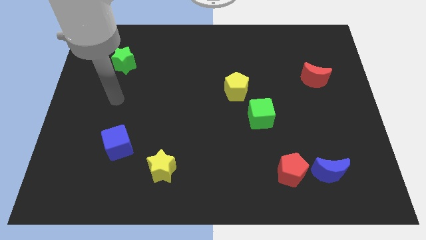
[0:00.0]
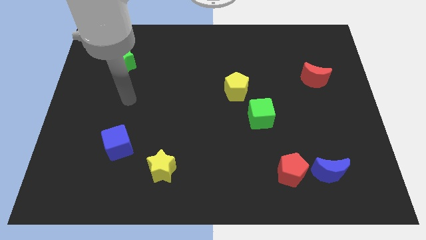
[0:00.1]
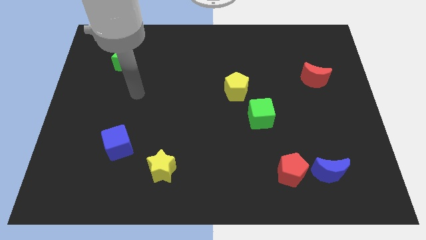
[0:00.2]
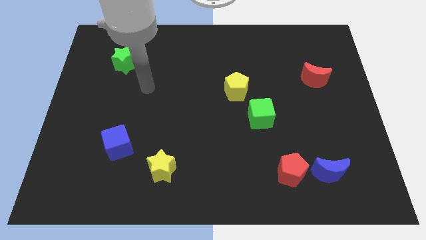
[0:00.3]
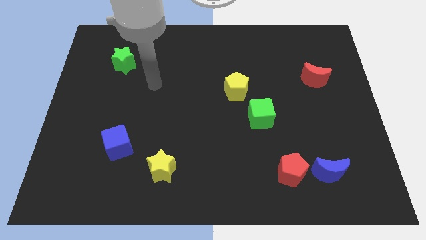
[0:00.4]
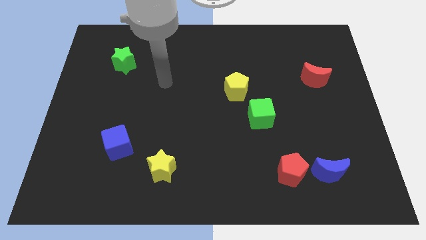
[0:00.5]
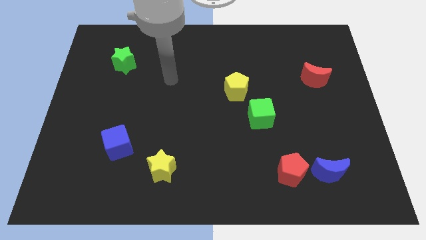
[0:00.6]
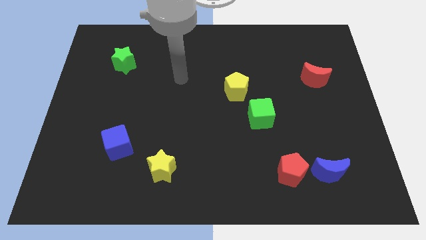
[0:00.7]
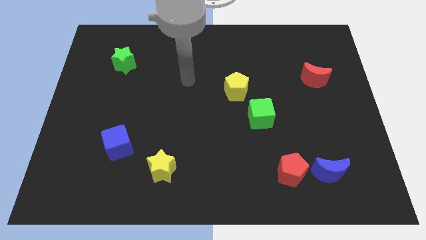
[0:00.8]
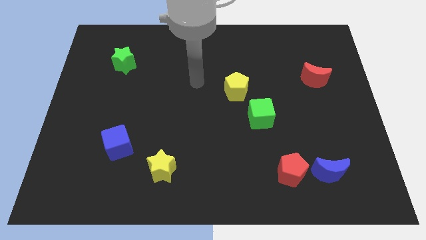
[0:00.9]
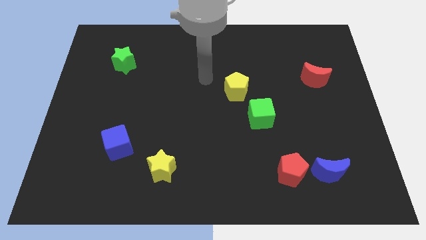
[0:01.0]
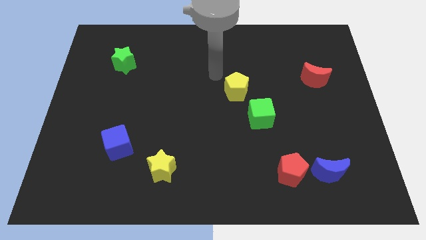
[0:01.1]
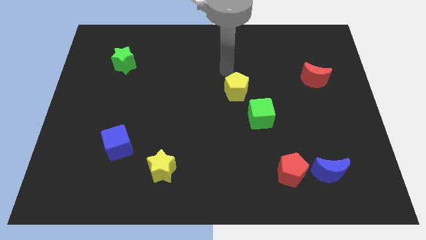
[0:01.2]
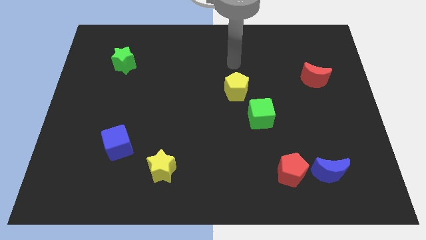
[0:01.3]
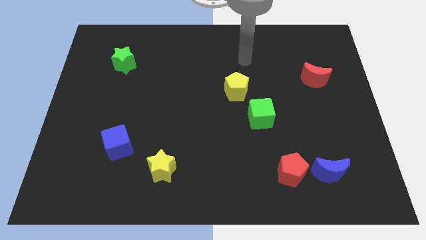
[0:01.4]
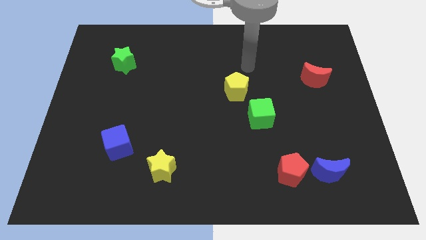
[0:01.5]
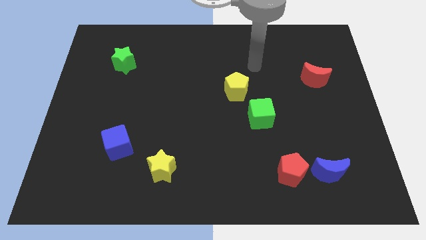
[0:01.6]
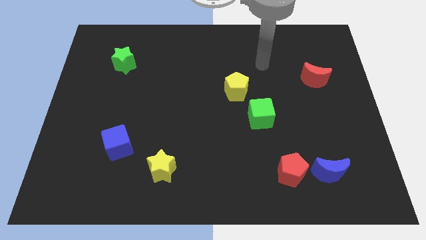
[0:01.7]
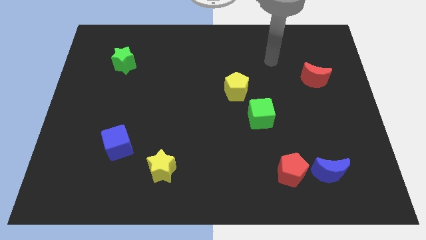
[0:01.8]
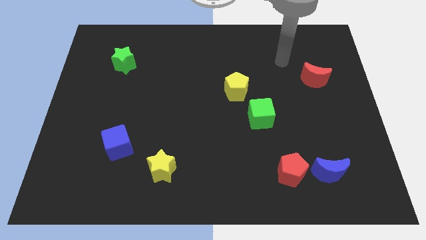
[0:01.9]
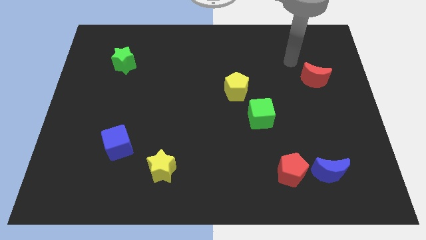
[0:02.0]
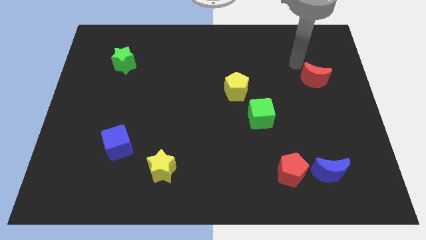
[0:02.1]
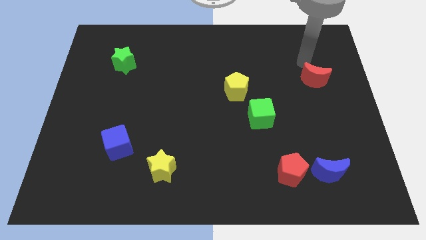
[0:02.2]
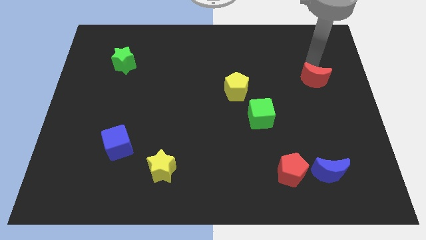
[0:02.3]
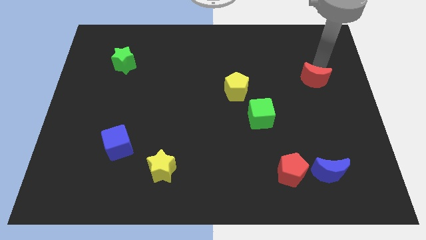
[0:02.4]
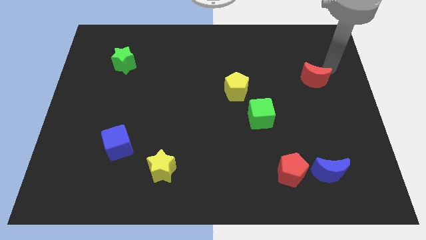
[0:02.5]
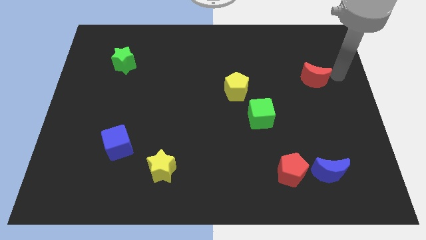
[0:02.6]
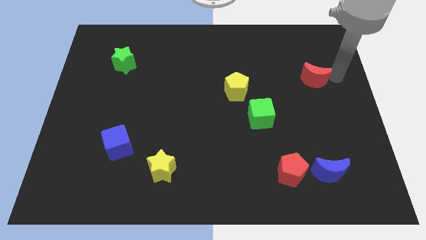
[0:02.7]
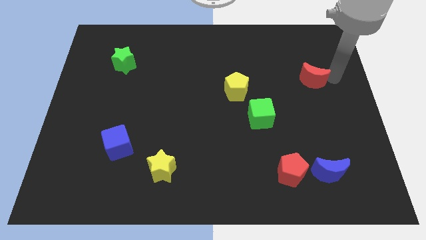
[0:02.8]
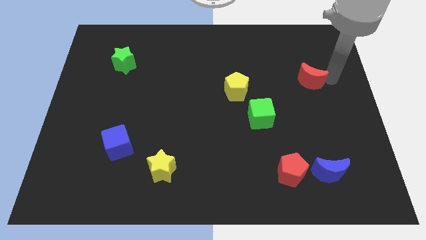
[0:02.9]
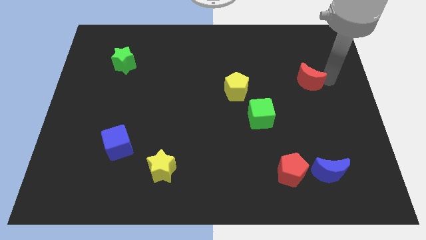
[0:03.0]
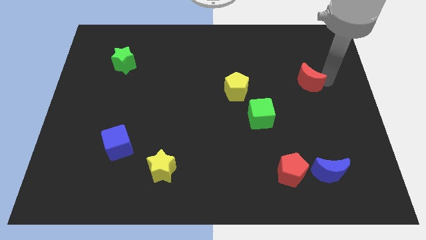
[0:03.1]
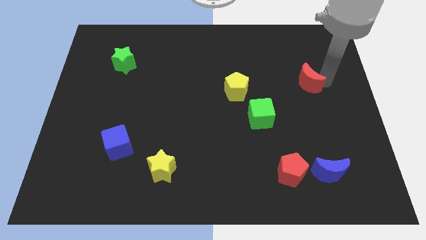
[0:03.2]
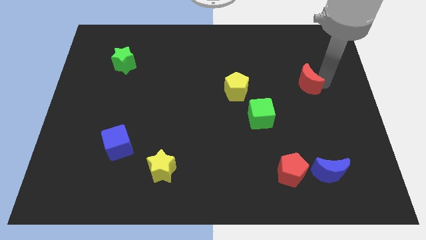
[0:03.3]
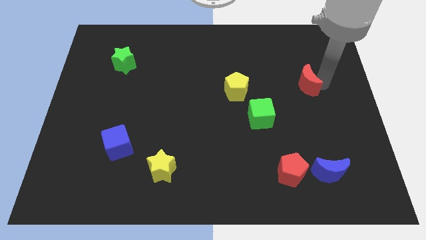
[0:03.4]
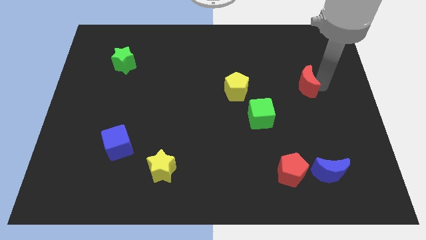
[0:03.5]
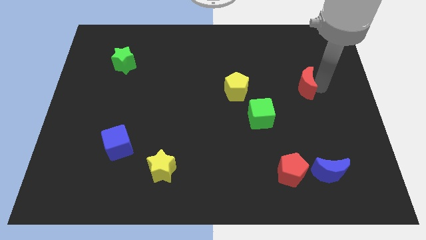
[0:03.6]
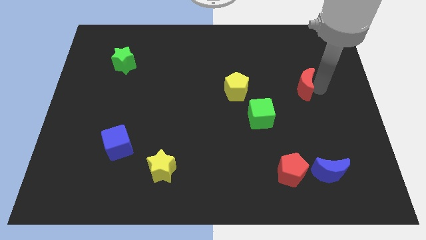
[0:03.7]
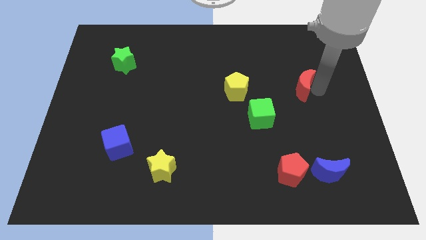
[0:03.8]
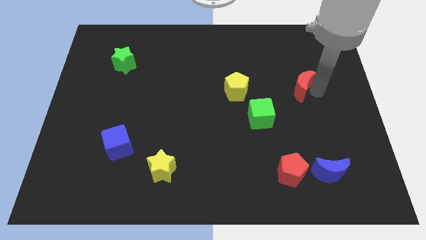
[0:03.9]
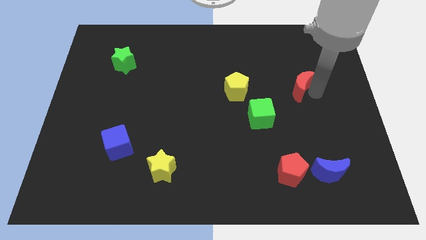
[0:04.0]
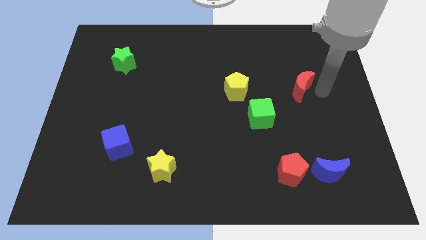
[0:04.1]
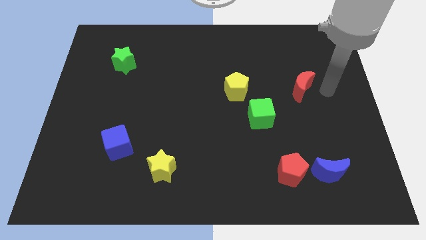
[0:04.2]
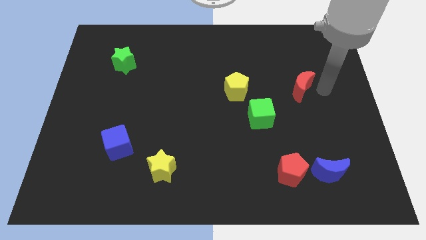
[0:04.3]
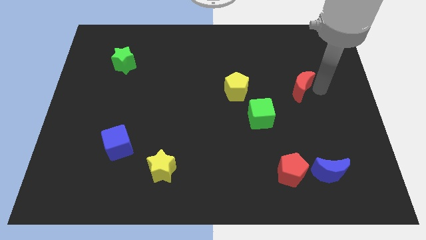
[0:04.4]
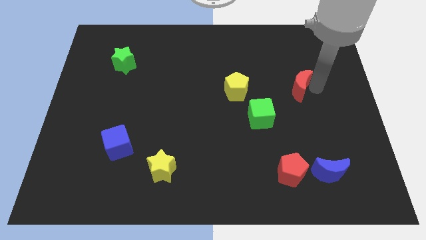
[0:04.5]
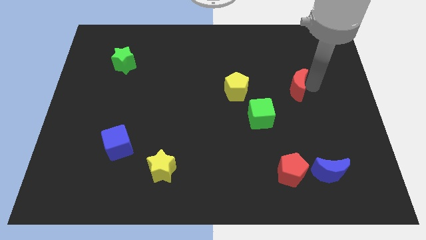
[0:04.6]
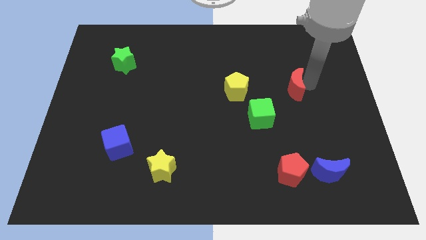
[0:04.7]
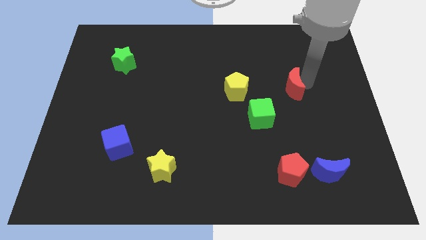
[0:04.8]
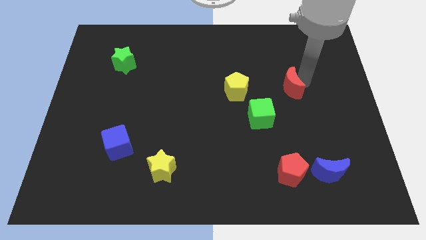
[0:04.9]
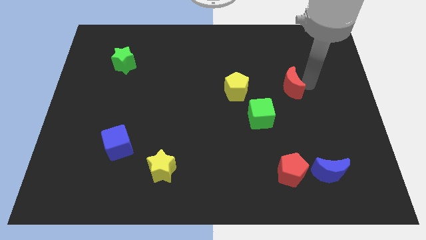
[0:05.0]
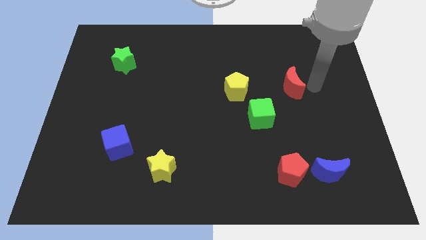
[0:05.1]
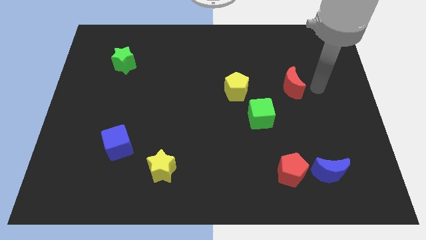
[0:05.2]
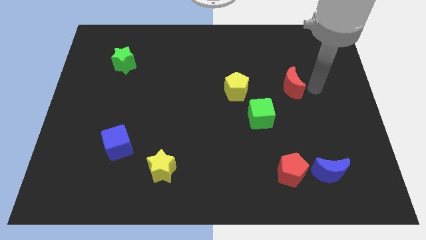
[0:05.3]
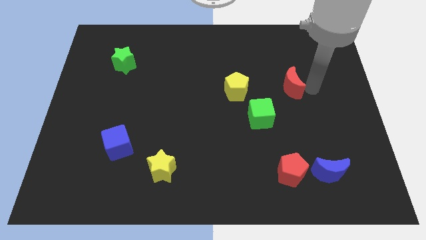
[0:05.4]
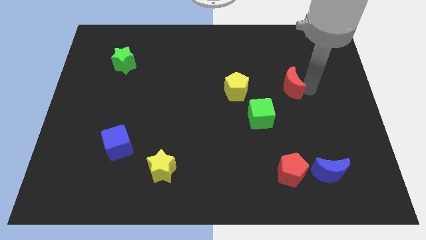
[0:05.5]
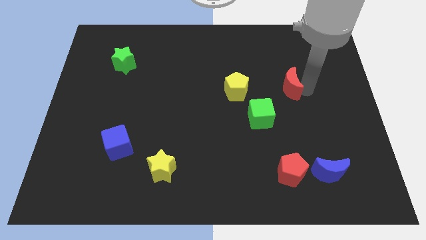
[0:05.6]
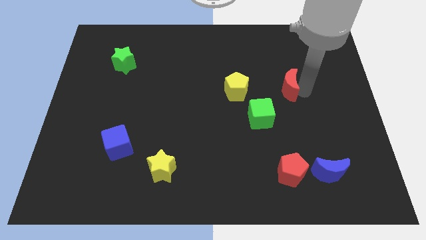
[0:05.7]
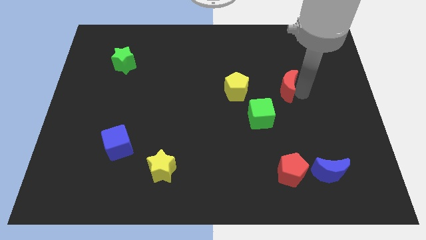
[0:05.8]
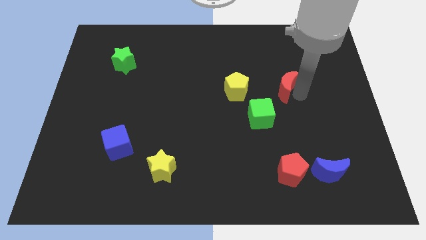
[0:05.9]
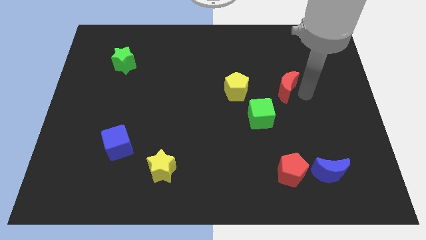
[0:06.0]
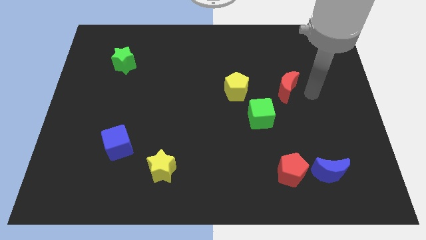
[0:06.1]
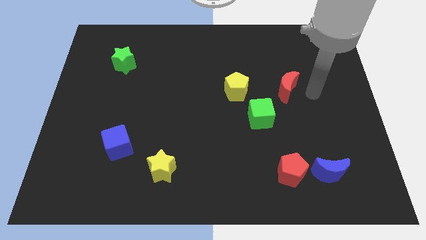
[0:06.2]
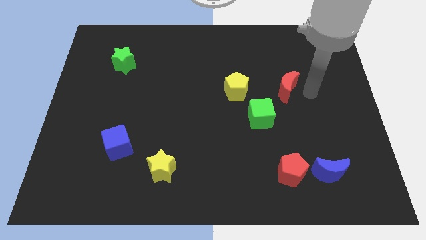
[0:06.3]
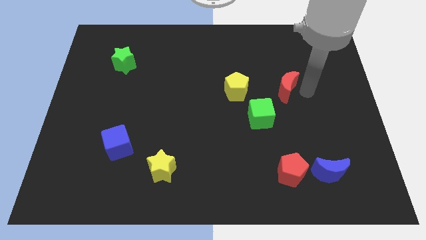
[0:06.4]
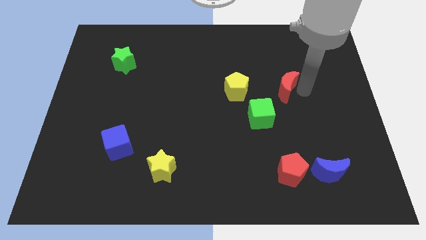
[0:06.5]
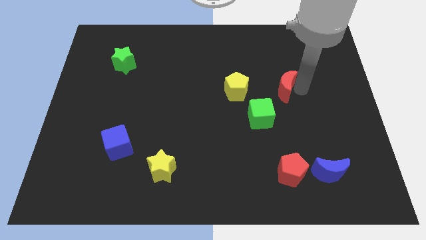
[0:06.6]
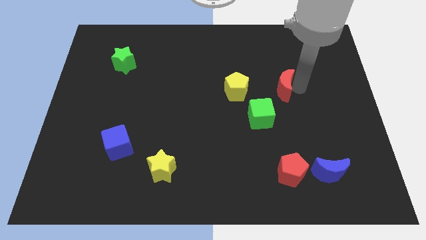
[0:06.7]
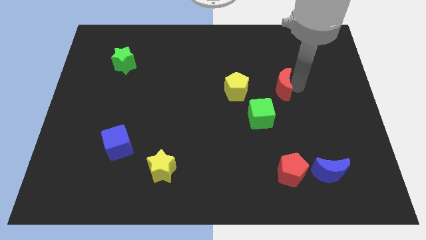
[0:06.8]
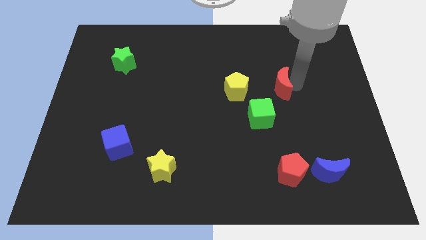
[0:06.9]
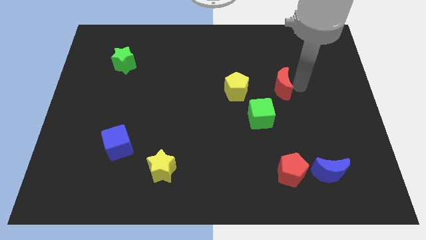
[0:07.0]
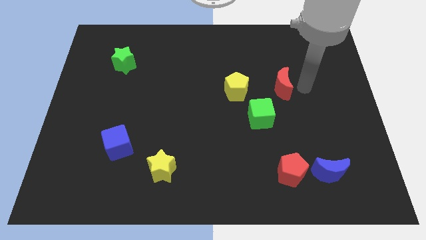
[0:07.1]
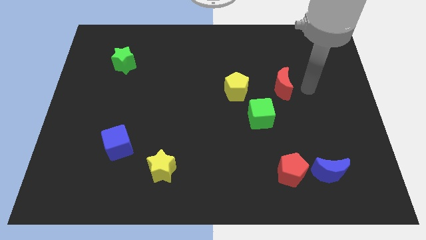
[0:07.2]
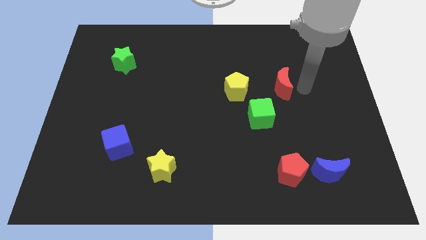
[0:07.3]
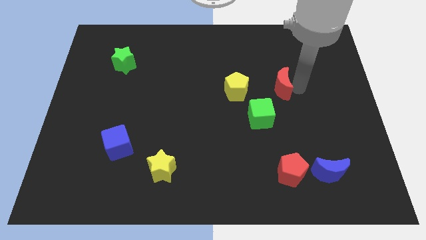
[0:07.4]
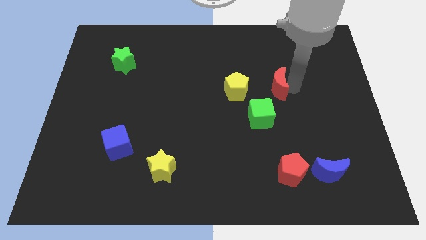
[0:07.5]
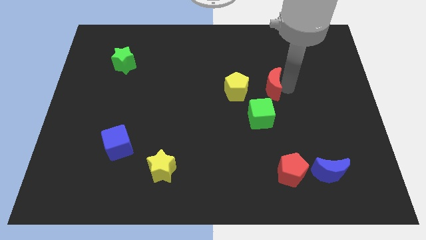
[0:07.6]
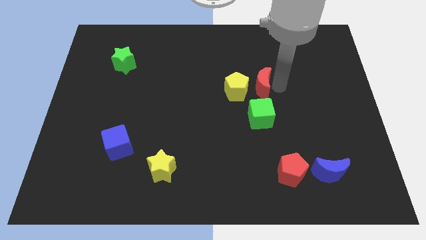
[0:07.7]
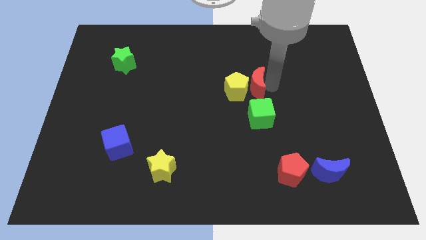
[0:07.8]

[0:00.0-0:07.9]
move the red moon close to the yellow pentagon
